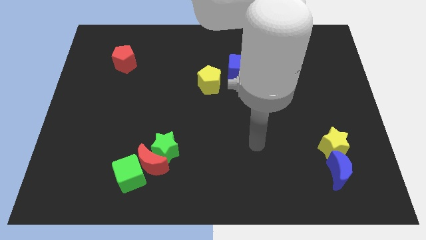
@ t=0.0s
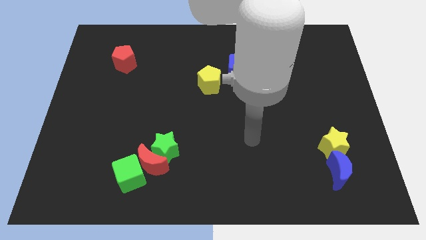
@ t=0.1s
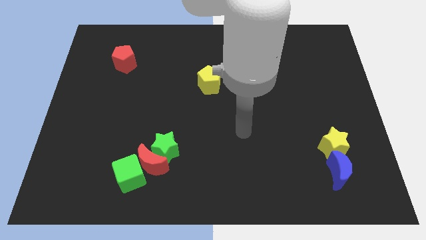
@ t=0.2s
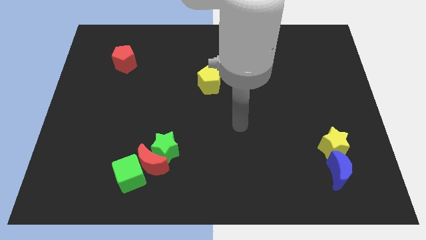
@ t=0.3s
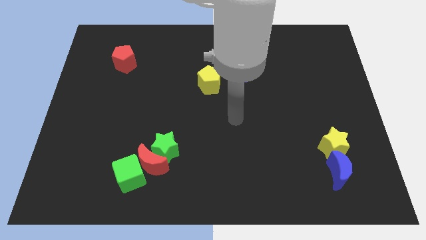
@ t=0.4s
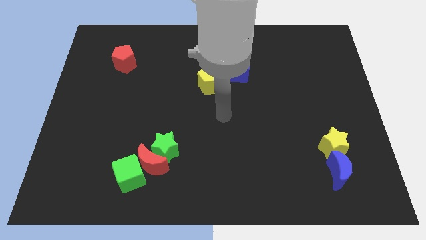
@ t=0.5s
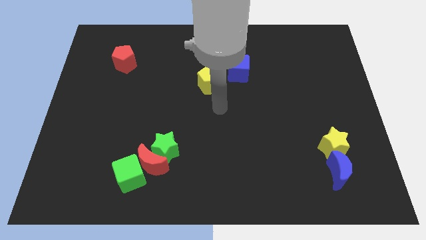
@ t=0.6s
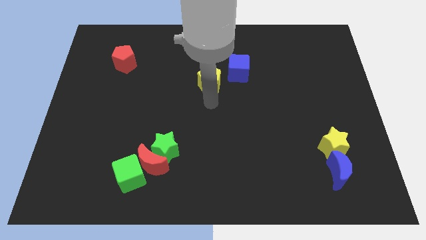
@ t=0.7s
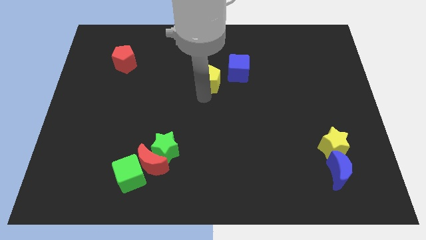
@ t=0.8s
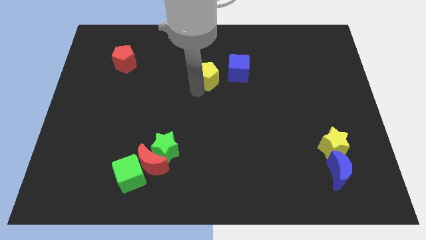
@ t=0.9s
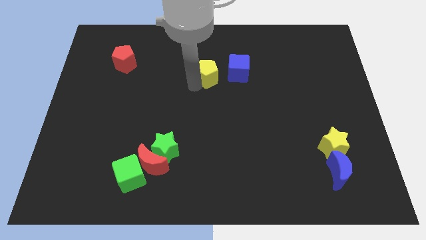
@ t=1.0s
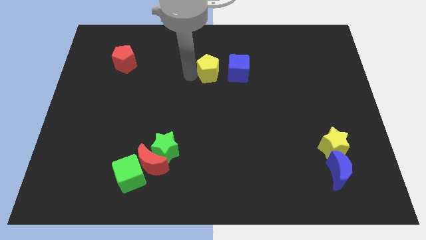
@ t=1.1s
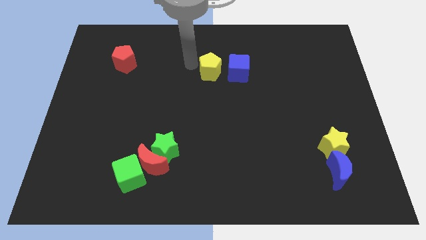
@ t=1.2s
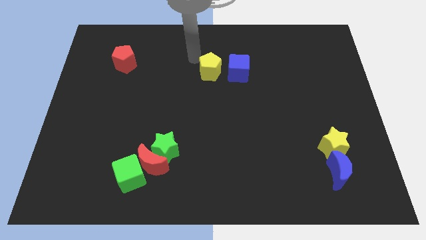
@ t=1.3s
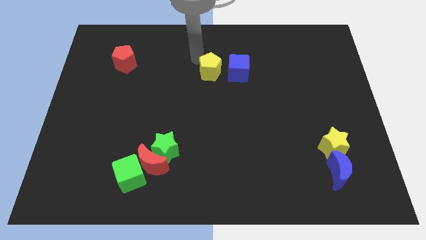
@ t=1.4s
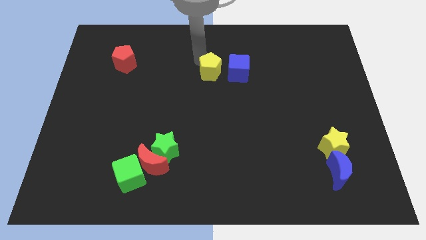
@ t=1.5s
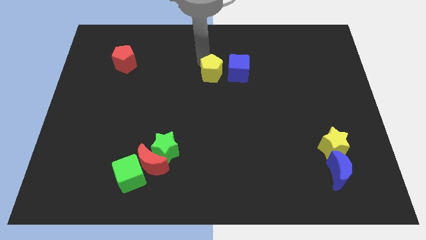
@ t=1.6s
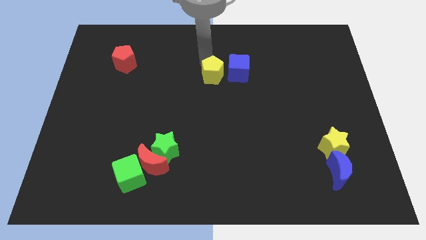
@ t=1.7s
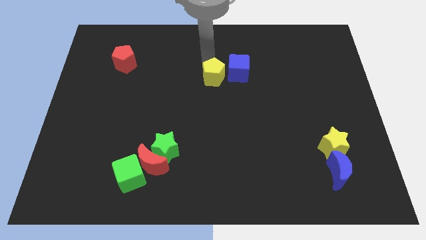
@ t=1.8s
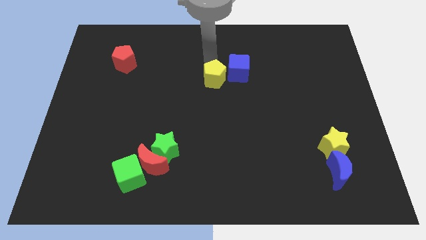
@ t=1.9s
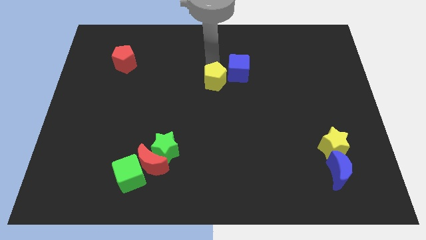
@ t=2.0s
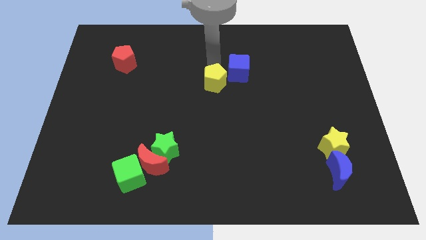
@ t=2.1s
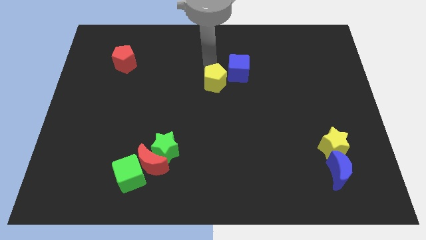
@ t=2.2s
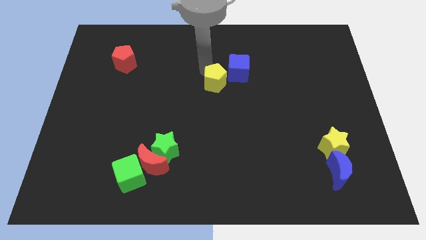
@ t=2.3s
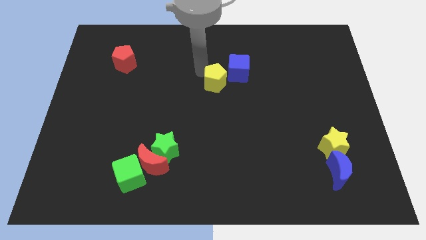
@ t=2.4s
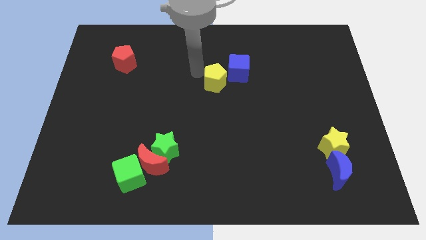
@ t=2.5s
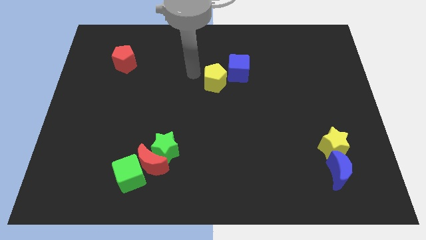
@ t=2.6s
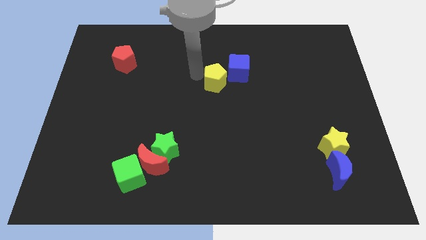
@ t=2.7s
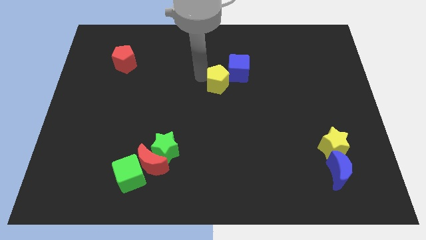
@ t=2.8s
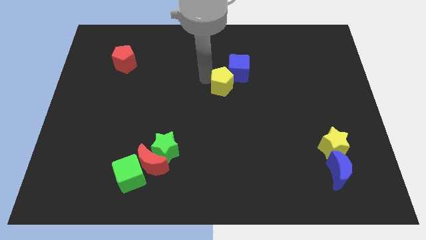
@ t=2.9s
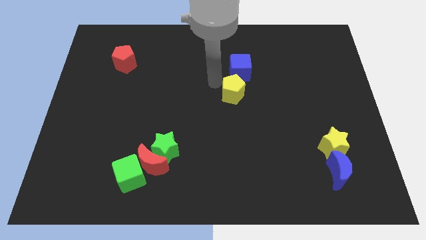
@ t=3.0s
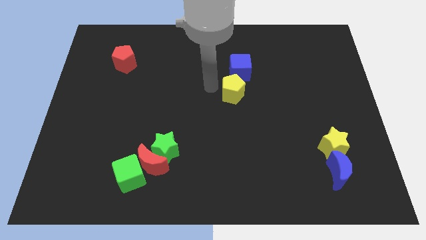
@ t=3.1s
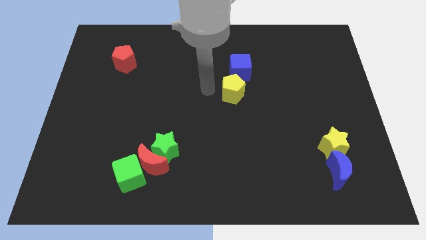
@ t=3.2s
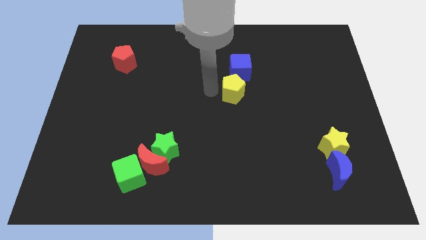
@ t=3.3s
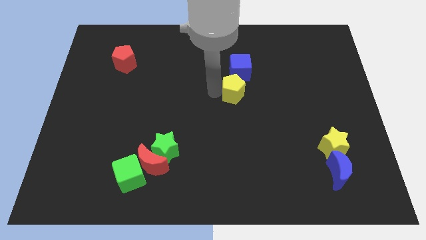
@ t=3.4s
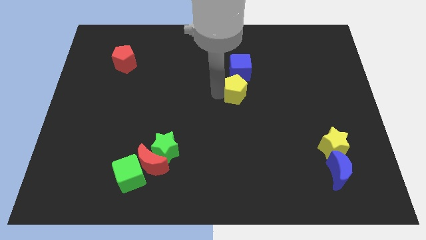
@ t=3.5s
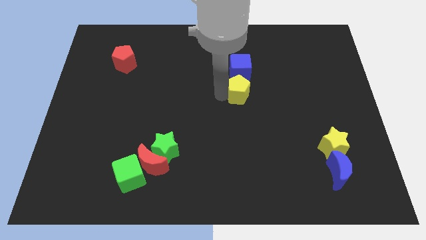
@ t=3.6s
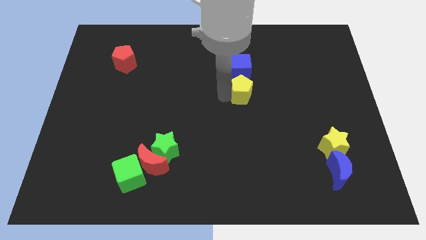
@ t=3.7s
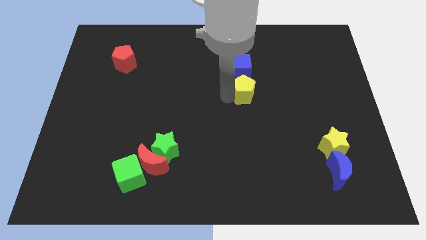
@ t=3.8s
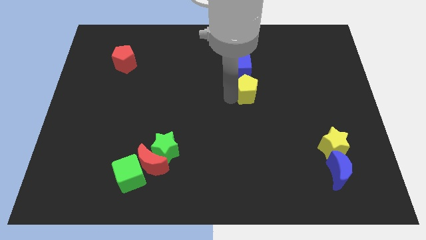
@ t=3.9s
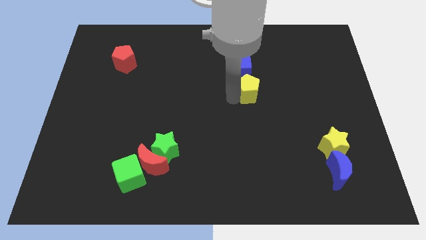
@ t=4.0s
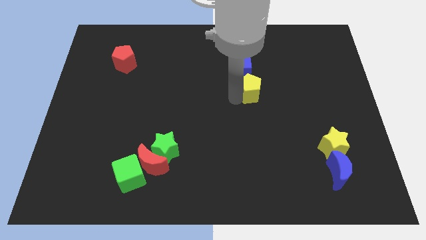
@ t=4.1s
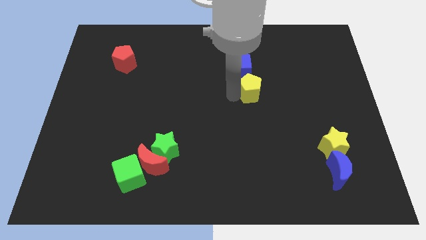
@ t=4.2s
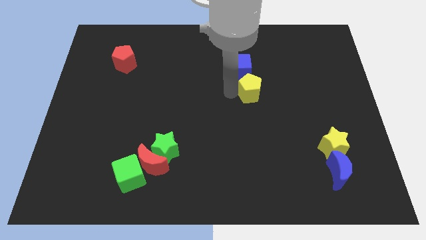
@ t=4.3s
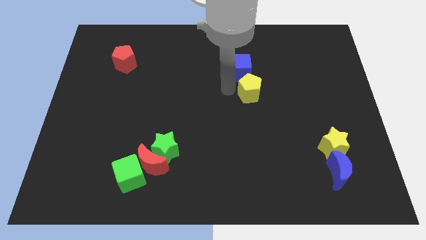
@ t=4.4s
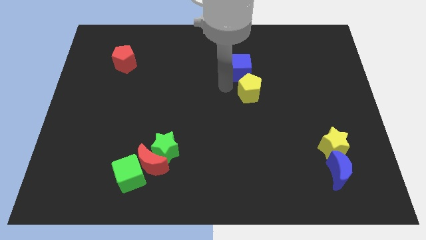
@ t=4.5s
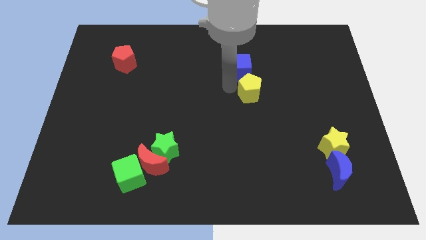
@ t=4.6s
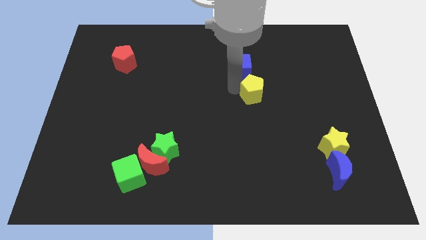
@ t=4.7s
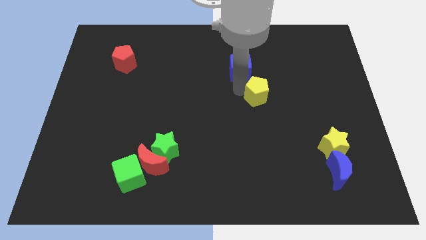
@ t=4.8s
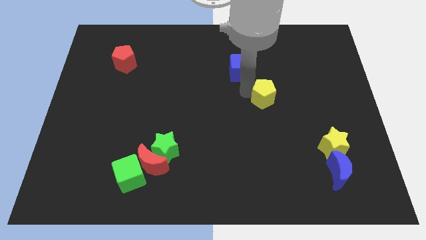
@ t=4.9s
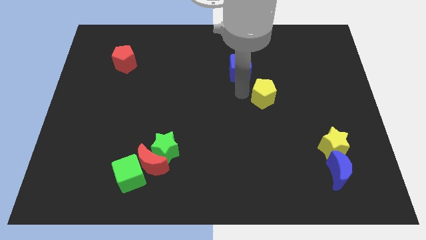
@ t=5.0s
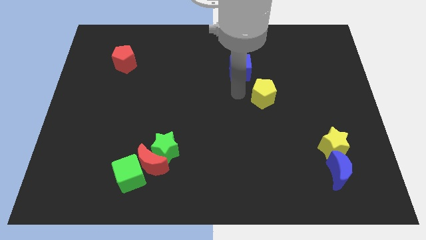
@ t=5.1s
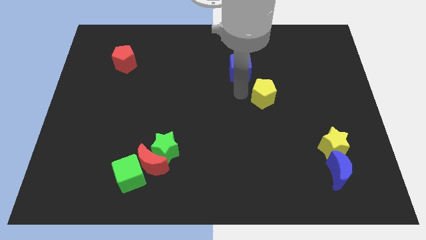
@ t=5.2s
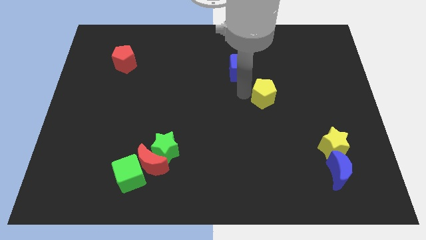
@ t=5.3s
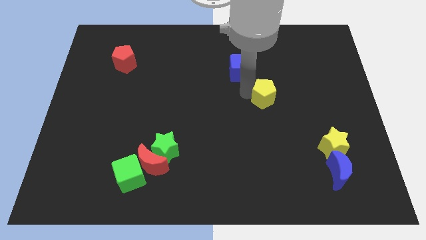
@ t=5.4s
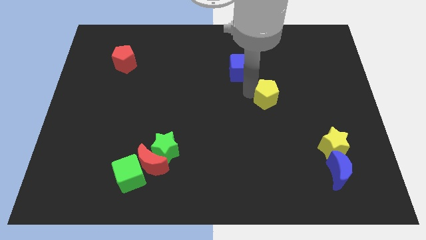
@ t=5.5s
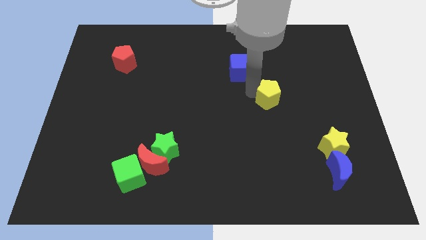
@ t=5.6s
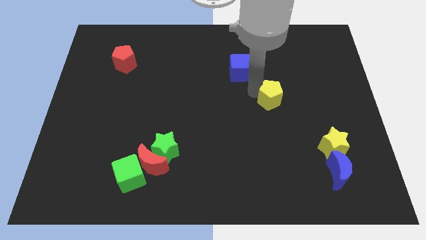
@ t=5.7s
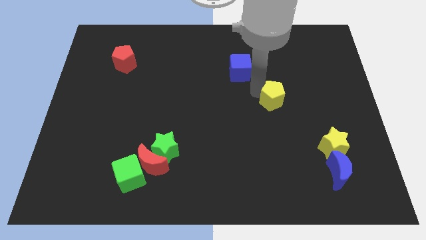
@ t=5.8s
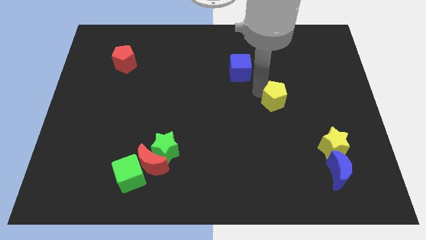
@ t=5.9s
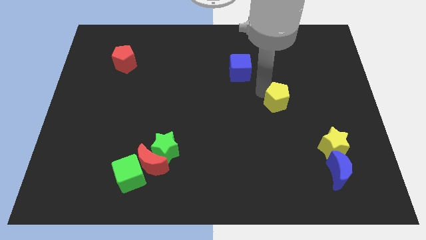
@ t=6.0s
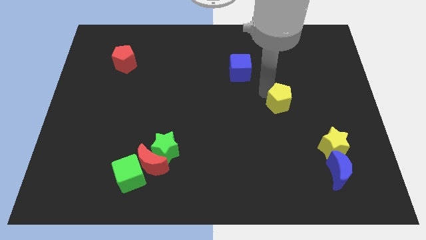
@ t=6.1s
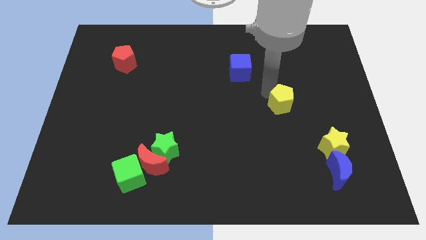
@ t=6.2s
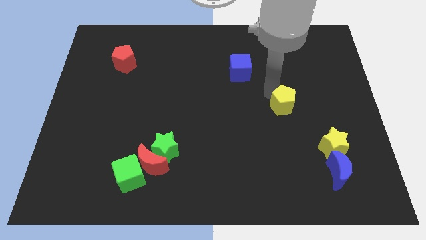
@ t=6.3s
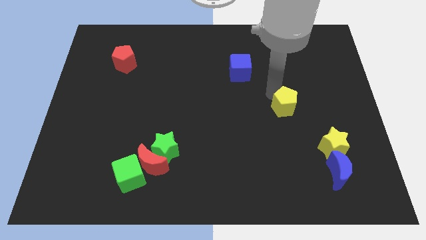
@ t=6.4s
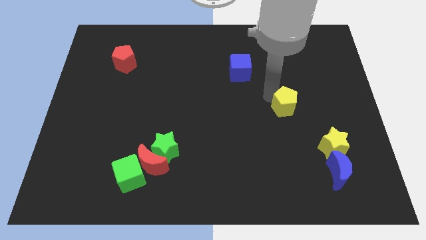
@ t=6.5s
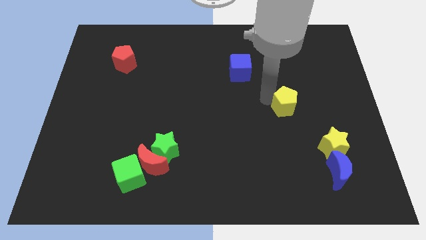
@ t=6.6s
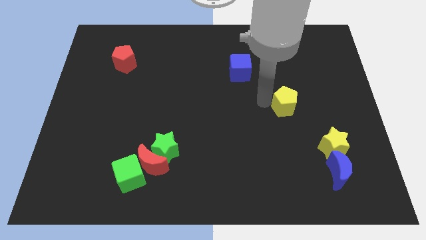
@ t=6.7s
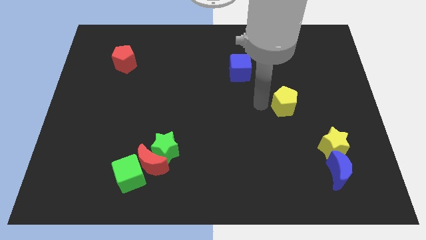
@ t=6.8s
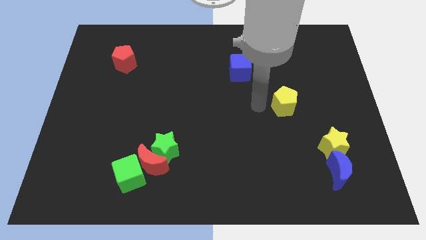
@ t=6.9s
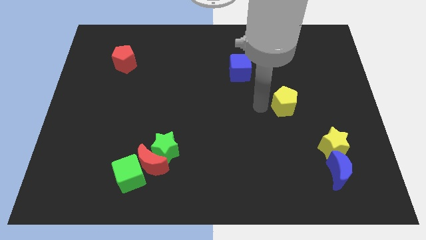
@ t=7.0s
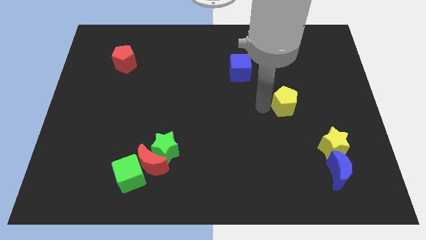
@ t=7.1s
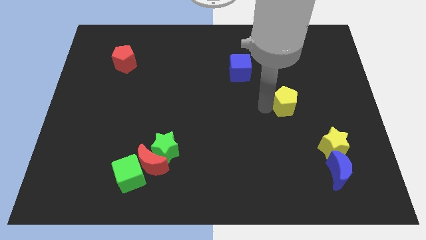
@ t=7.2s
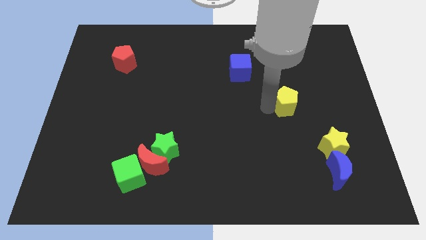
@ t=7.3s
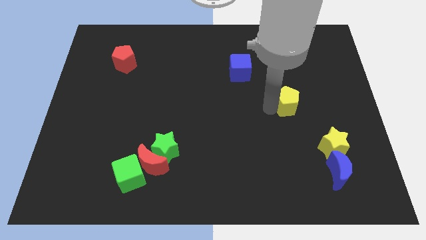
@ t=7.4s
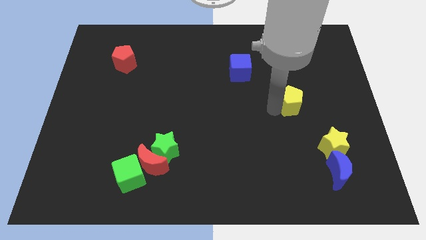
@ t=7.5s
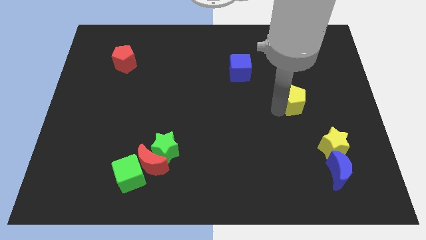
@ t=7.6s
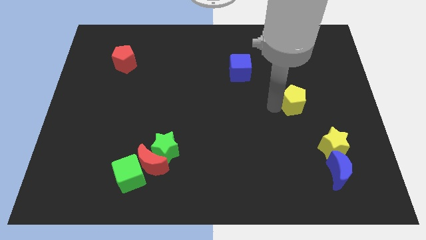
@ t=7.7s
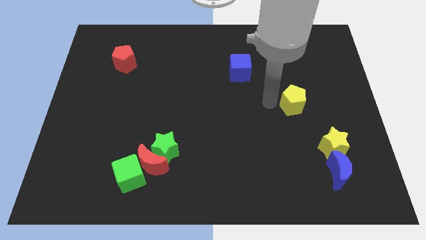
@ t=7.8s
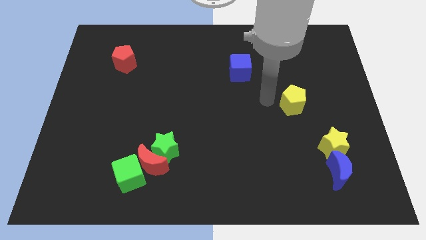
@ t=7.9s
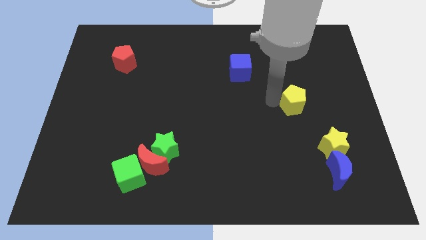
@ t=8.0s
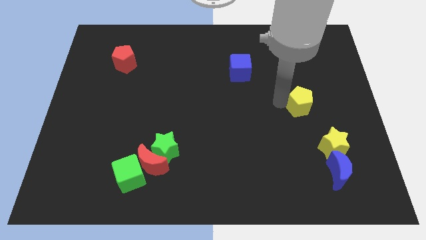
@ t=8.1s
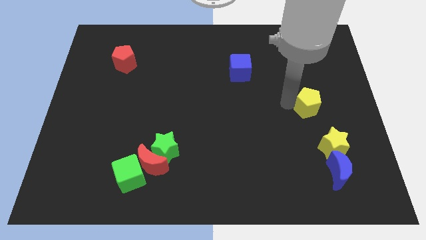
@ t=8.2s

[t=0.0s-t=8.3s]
move the yellow pentagon to the top side of the yellow star
